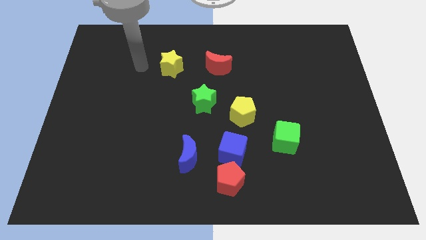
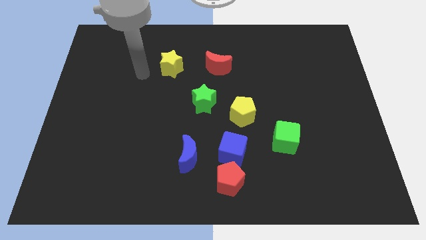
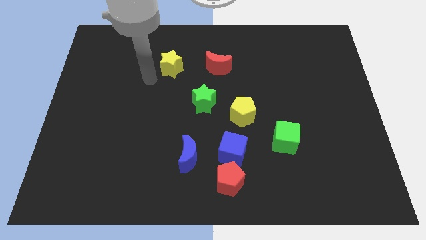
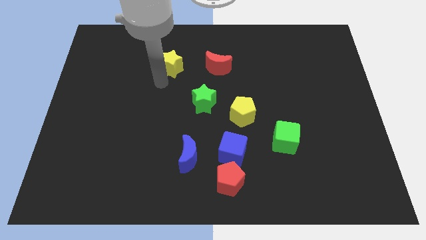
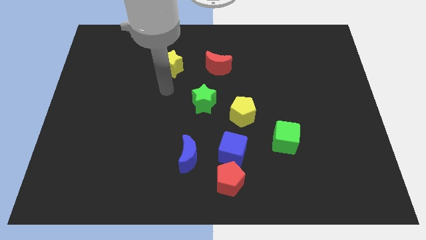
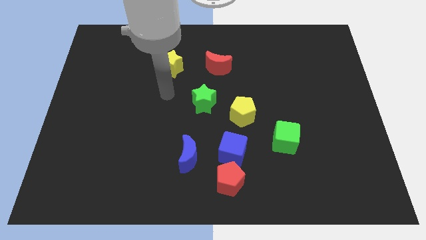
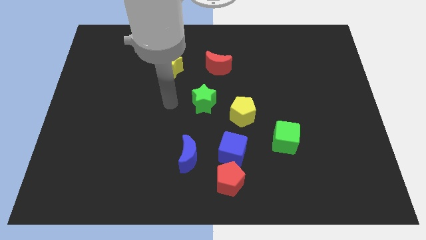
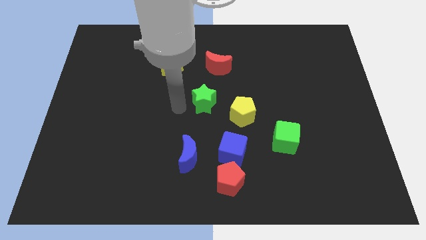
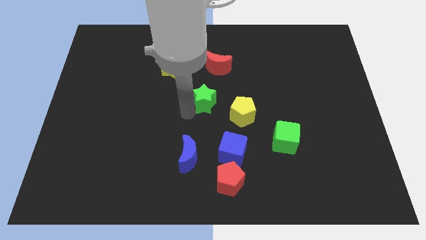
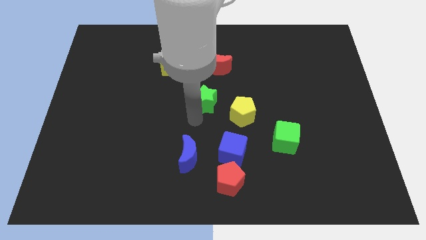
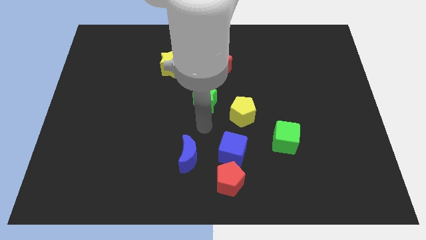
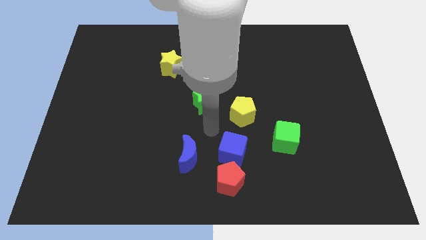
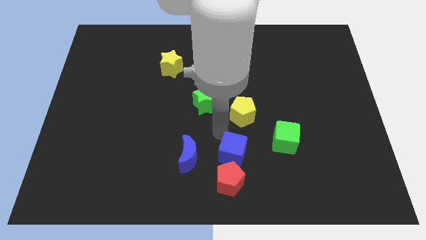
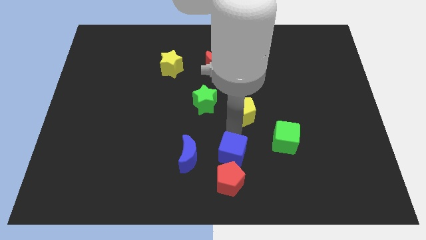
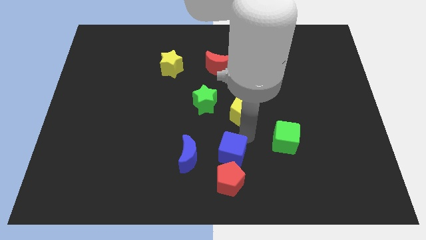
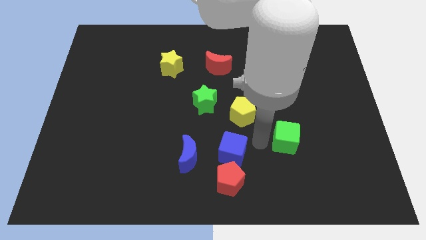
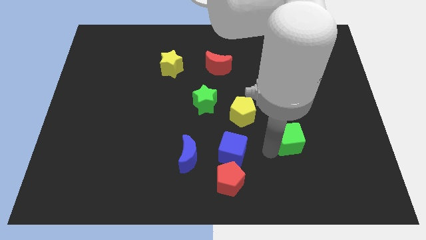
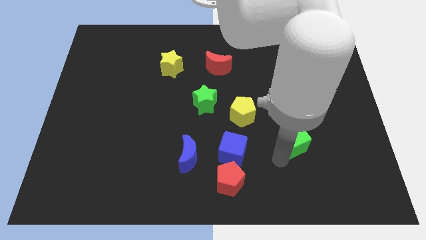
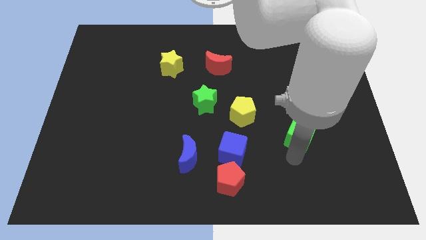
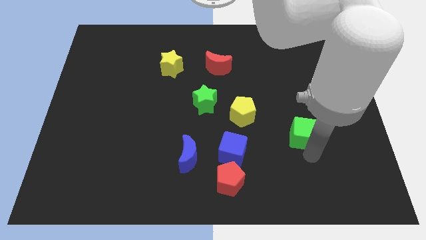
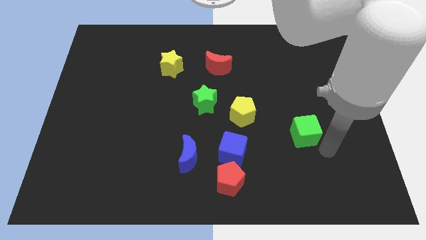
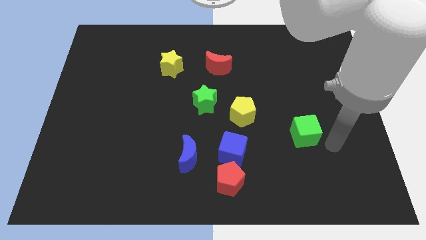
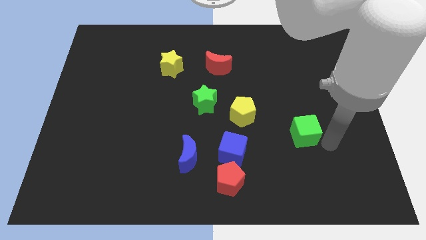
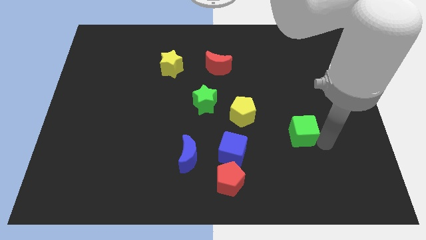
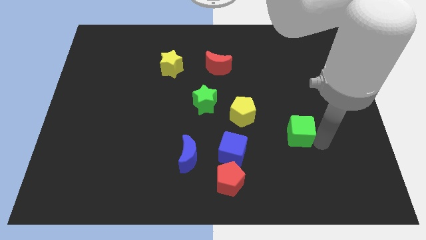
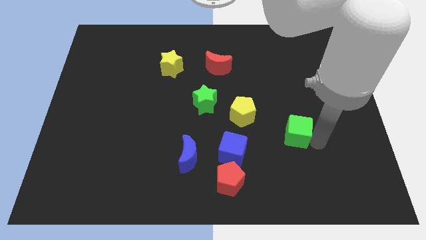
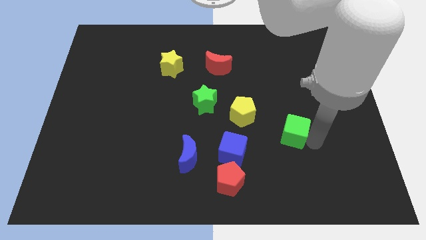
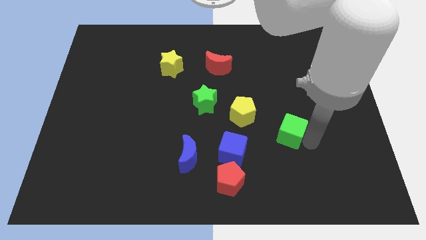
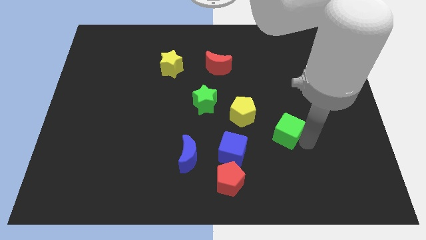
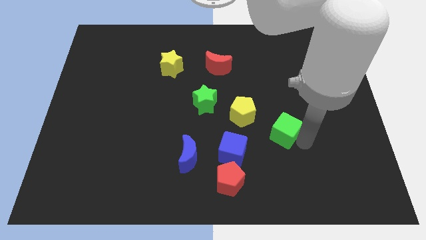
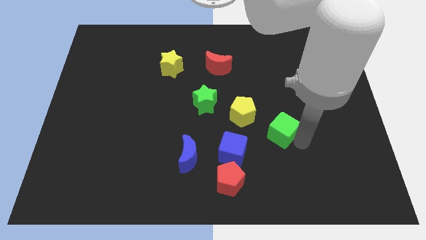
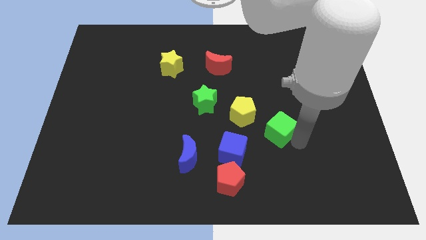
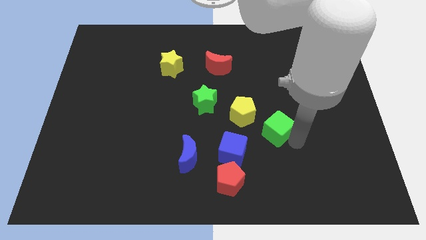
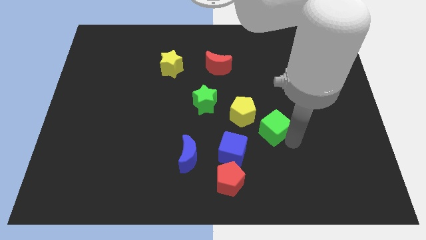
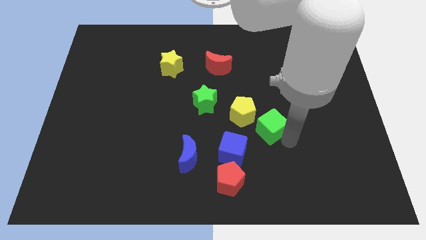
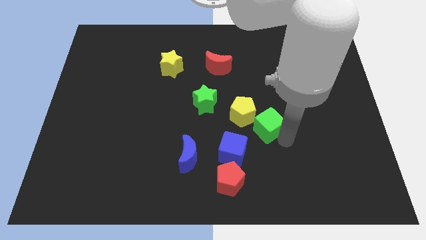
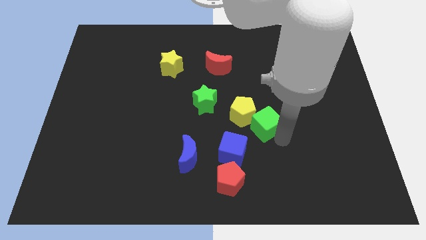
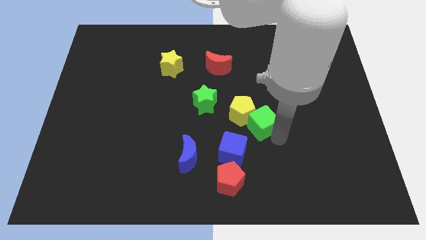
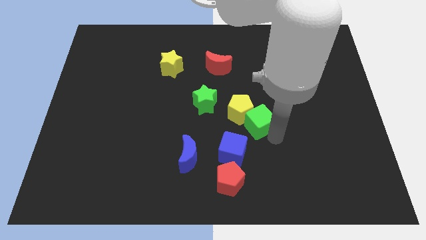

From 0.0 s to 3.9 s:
slightly push the green cube diagonally up and left

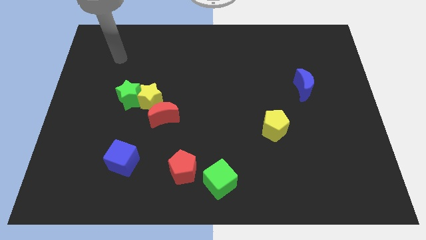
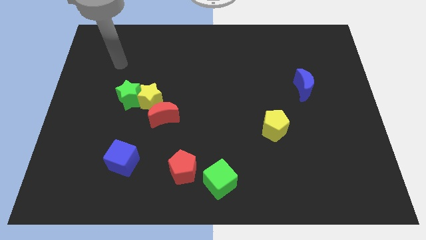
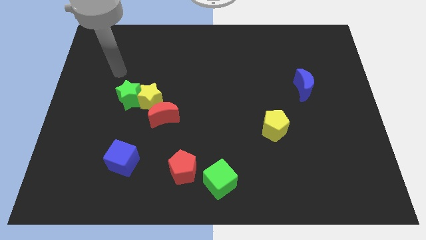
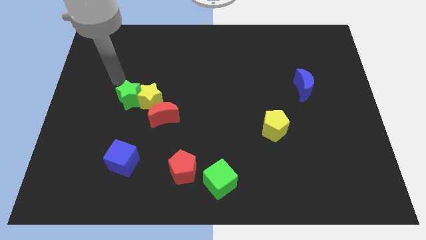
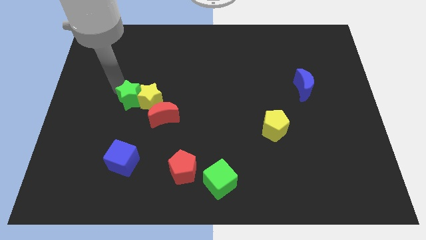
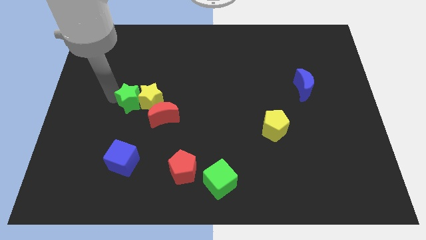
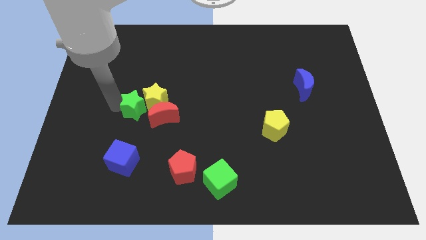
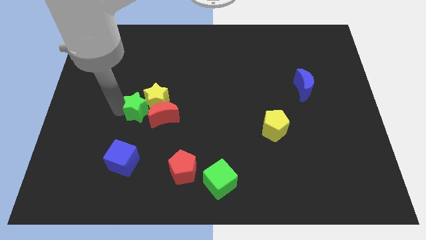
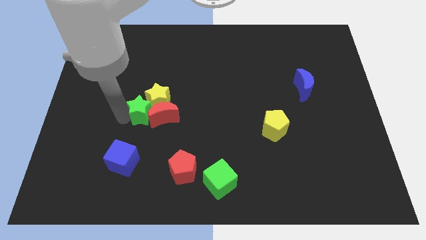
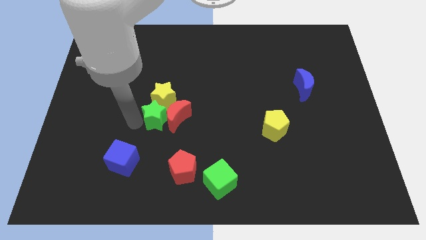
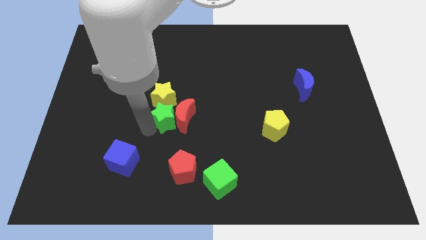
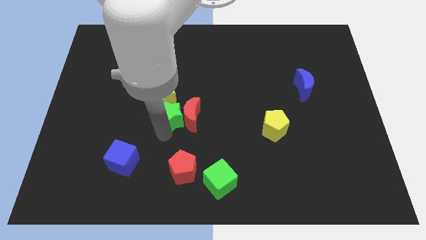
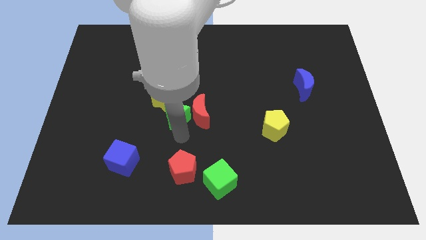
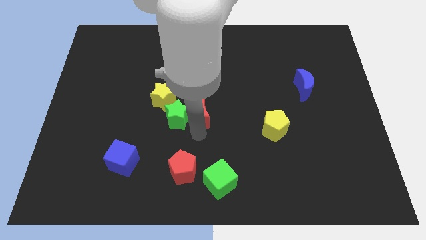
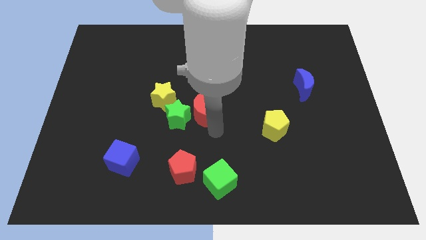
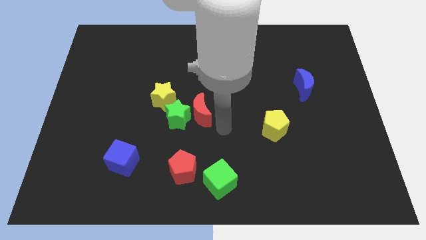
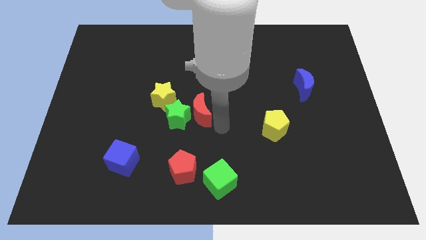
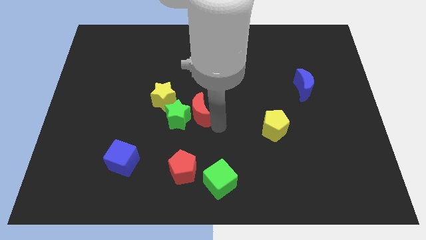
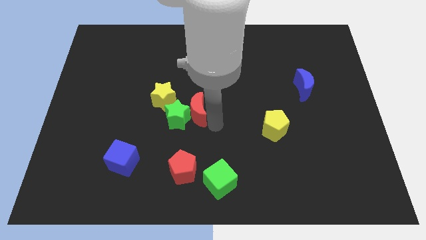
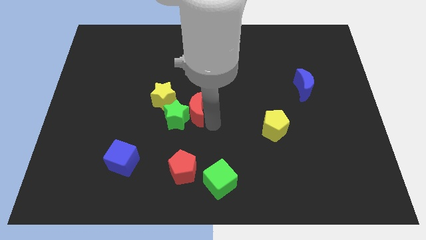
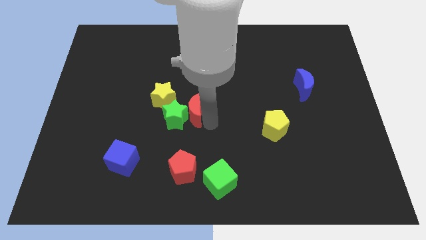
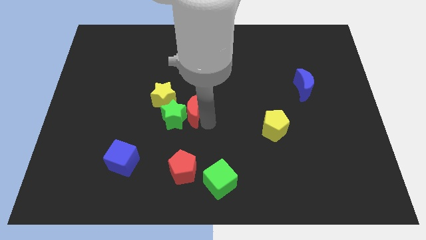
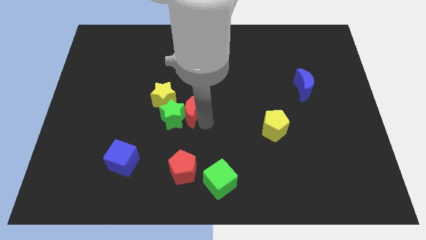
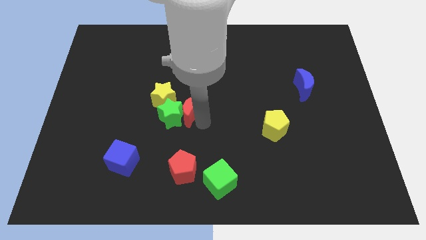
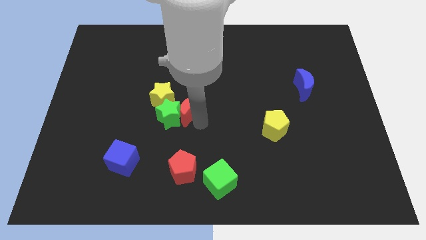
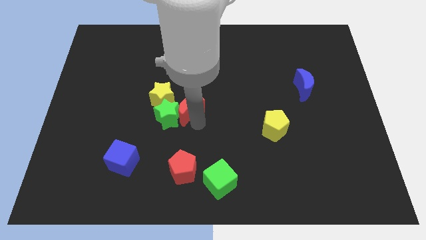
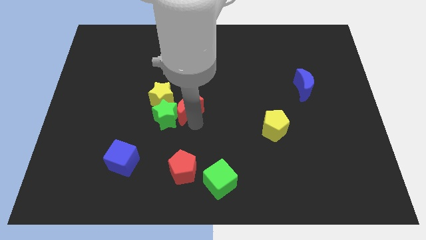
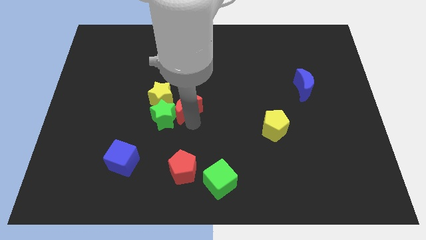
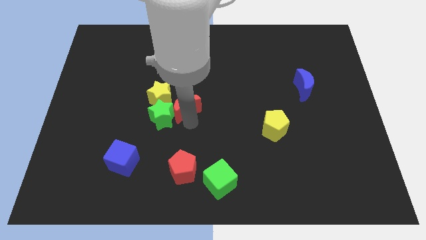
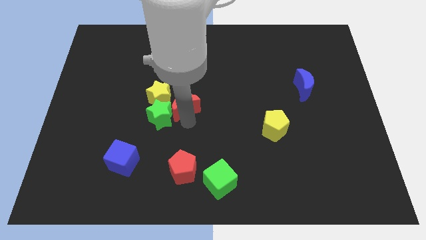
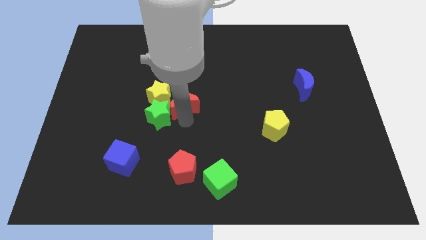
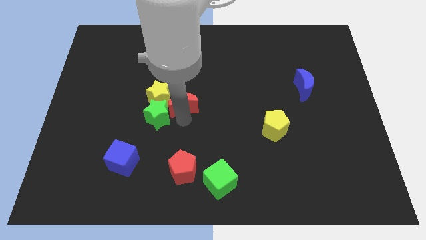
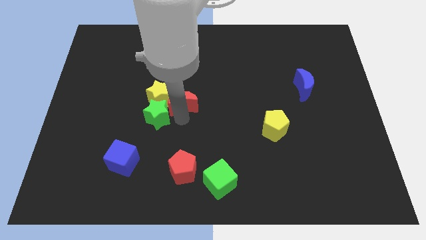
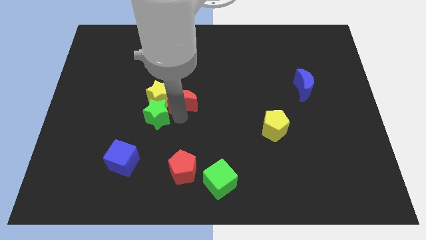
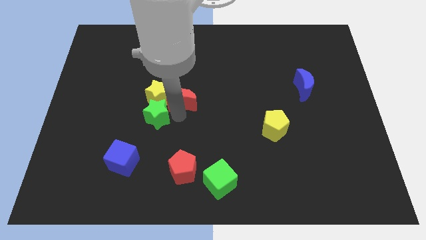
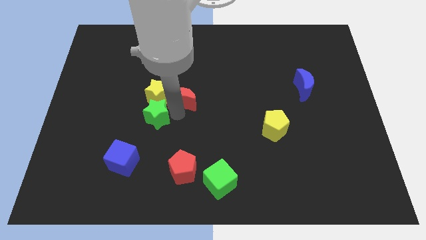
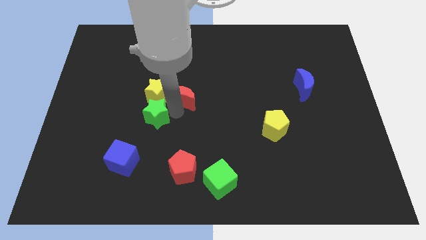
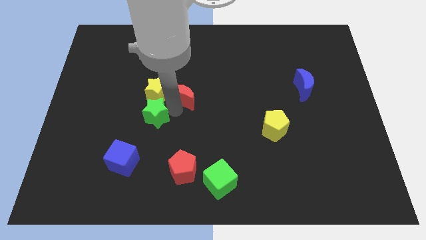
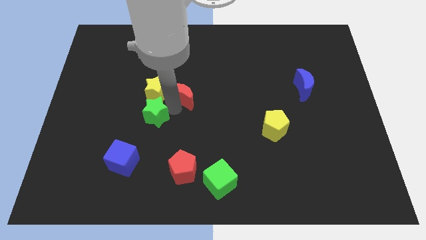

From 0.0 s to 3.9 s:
slide the red moon upwards and right diagonally somewhat

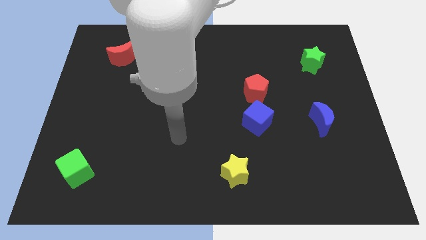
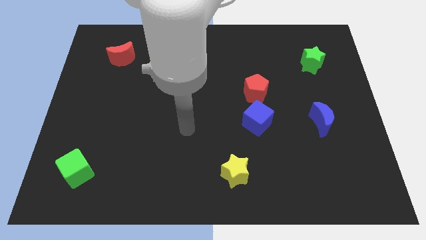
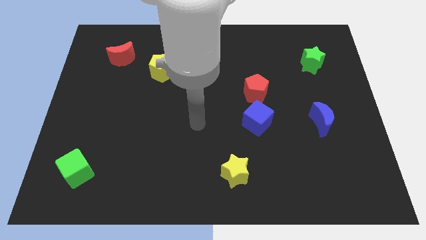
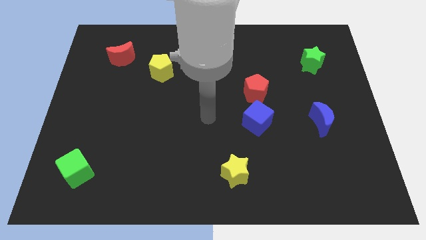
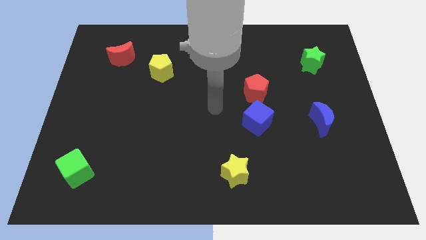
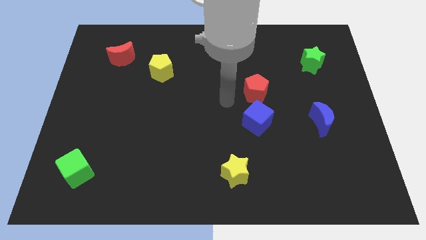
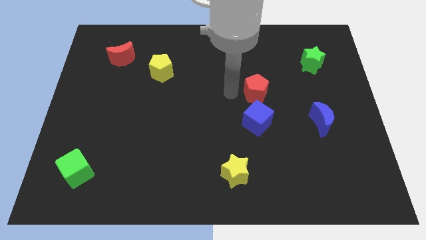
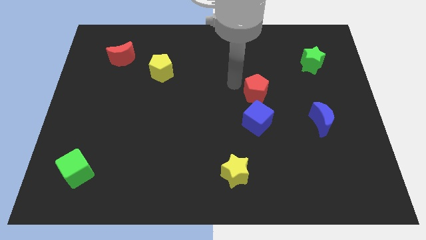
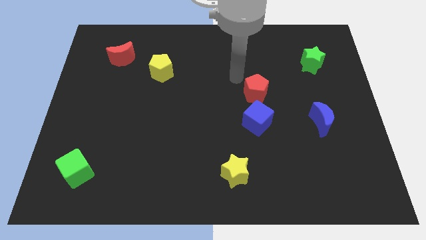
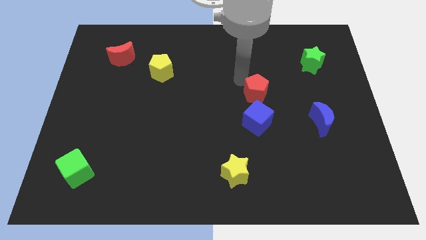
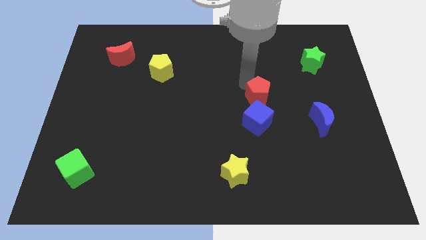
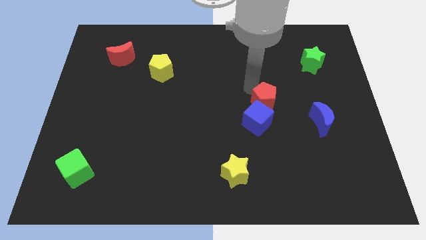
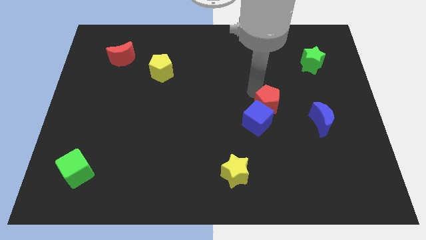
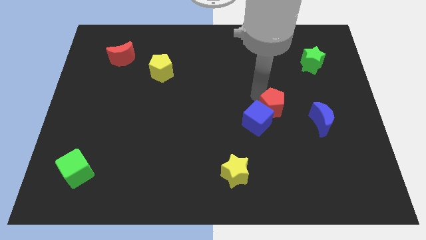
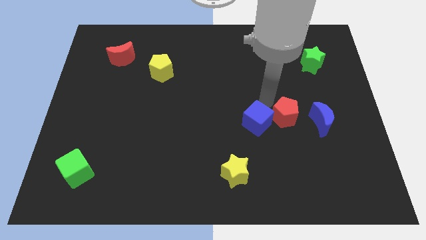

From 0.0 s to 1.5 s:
slightly slide the red pentagon downwards and to the right
